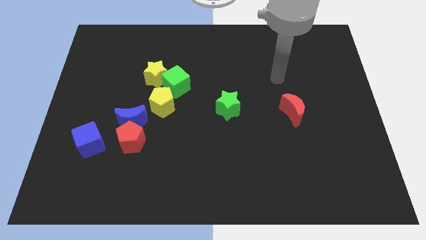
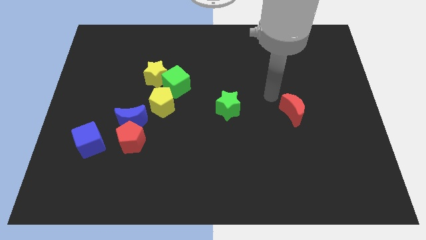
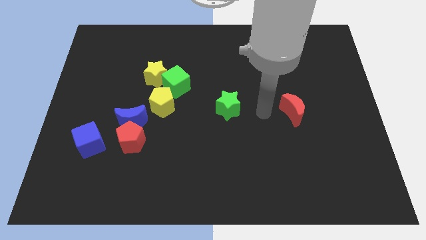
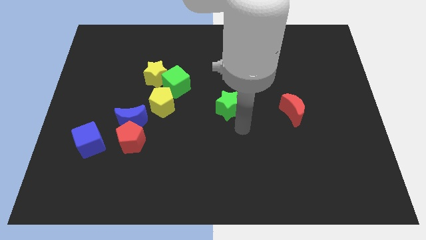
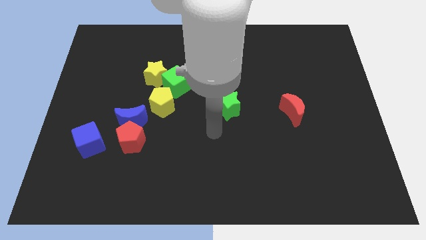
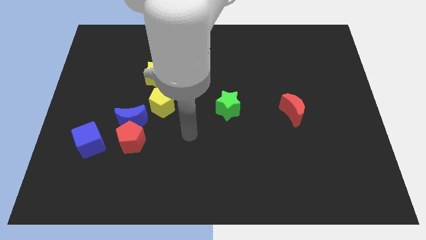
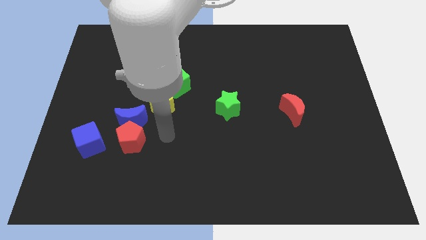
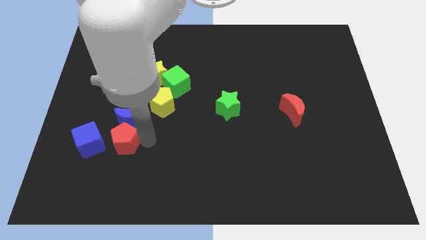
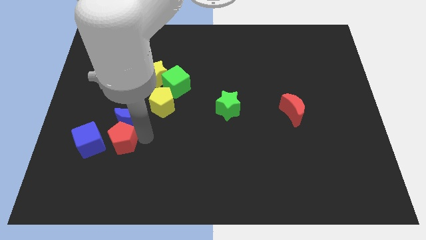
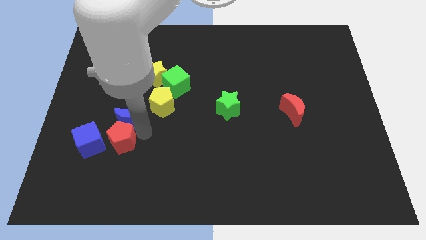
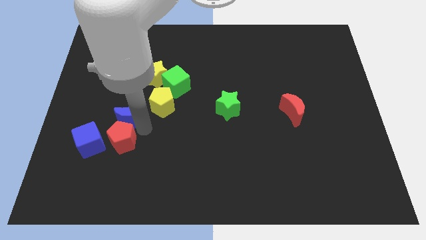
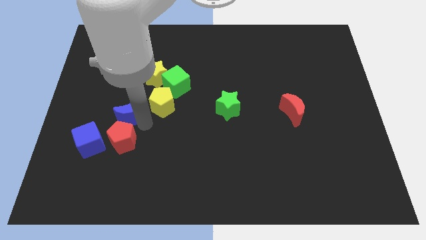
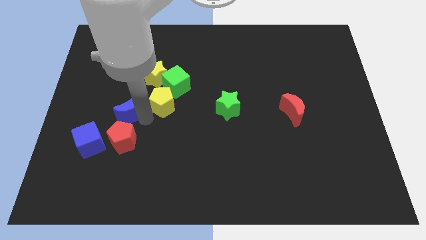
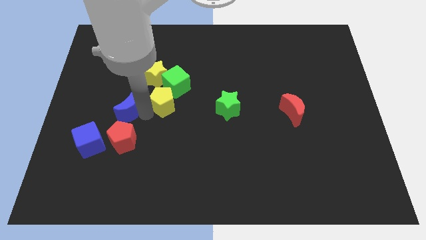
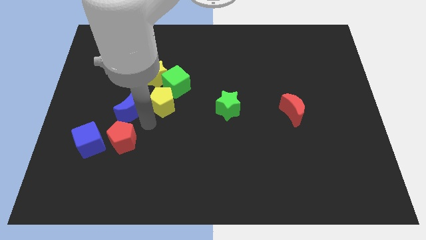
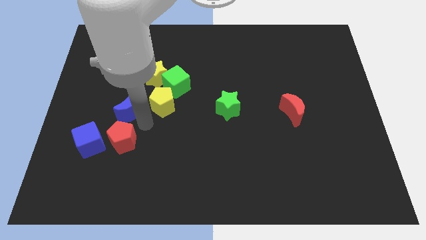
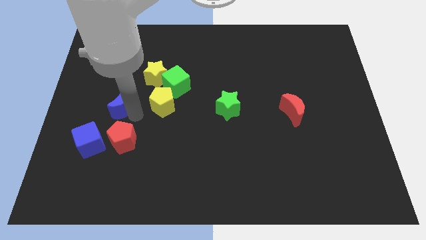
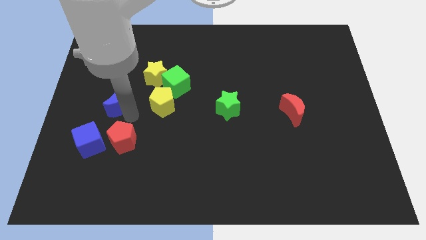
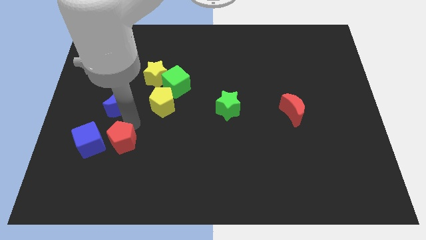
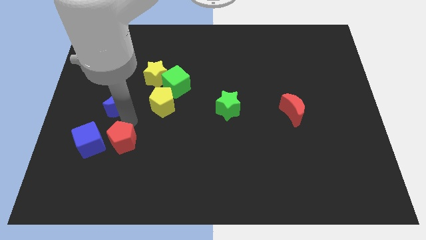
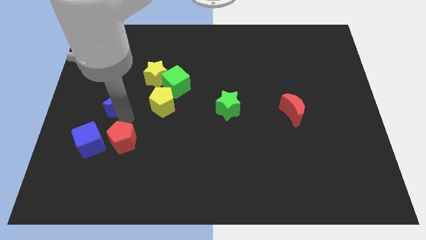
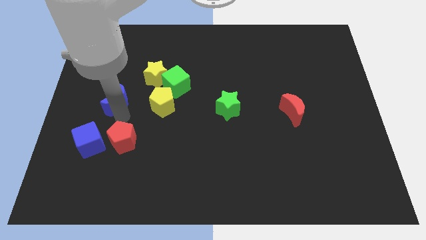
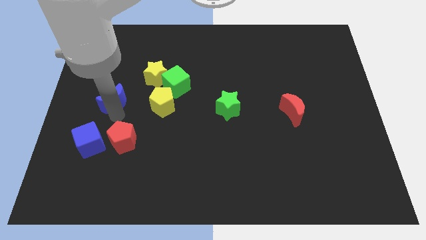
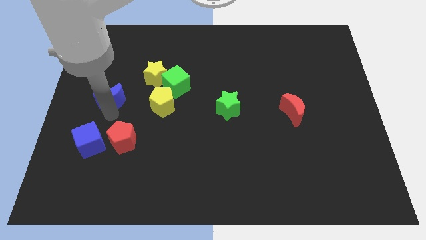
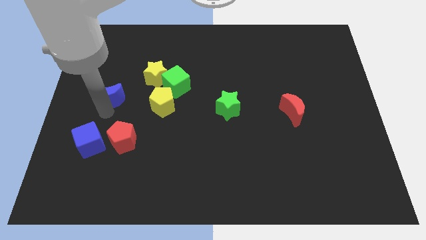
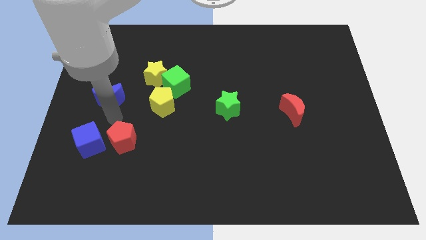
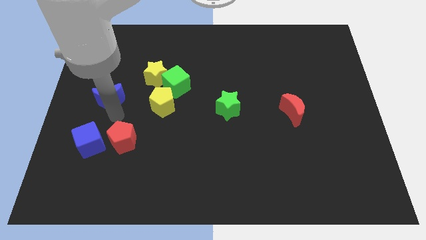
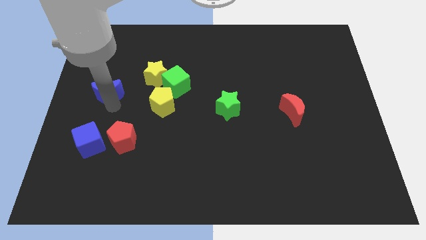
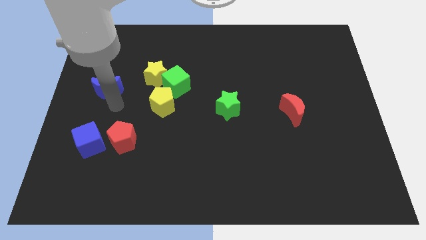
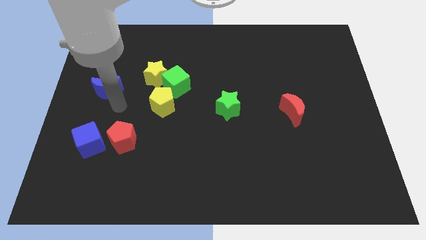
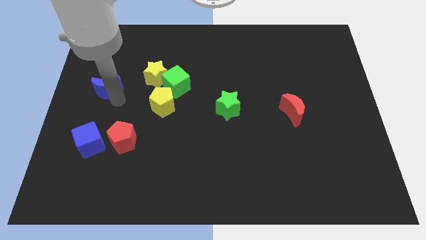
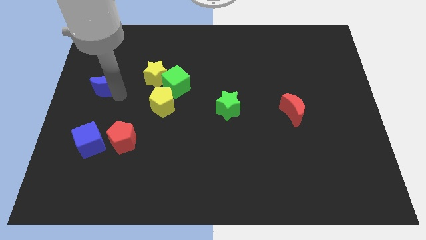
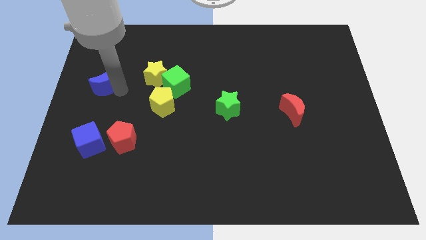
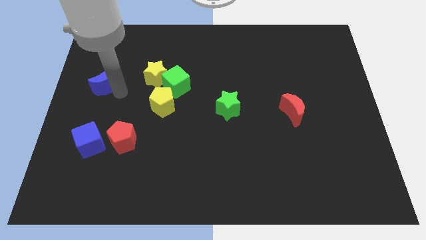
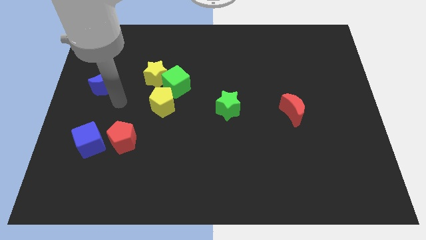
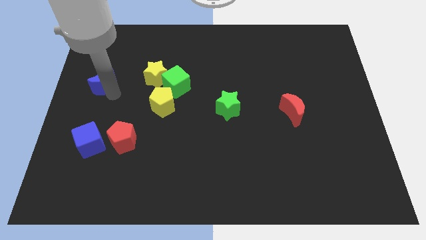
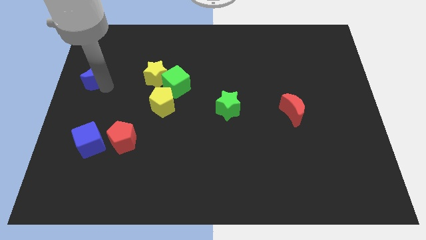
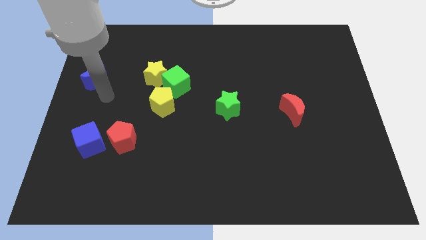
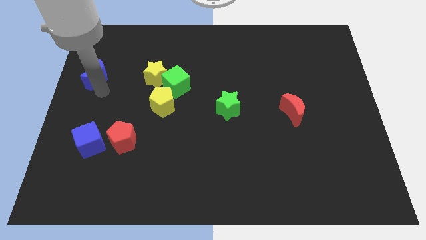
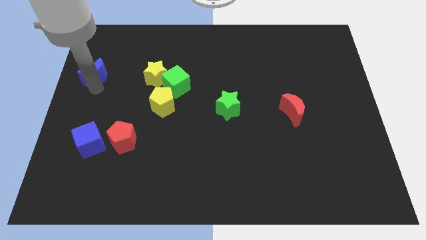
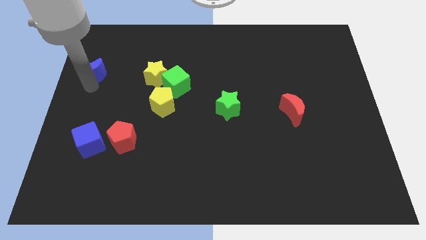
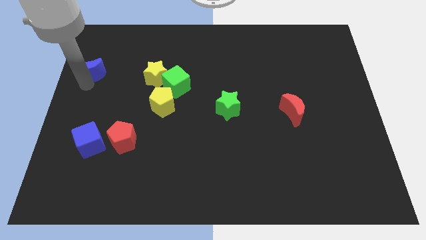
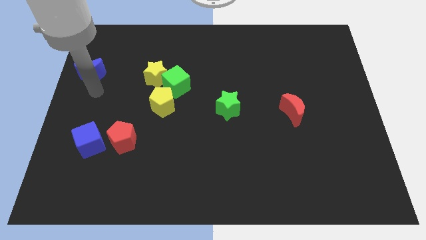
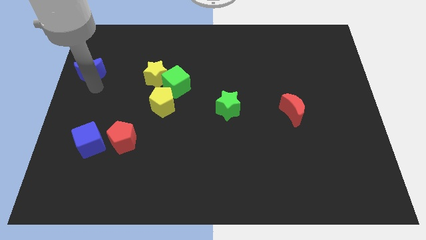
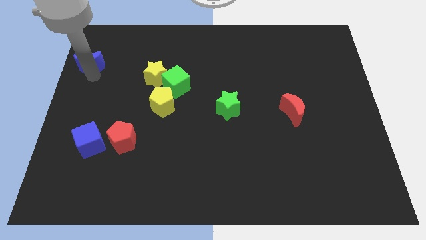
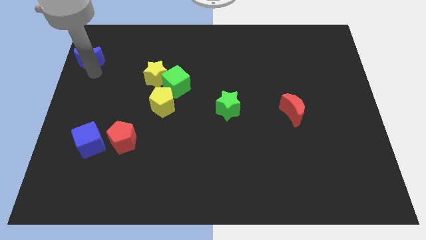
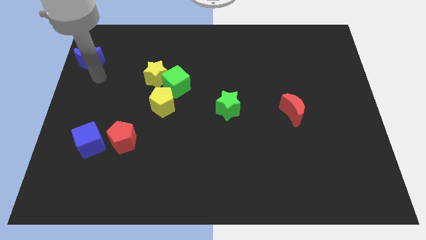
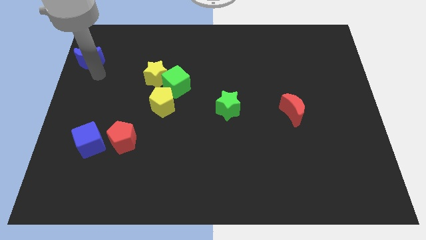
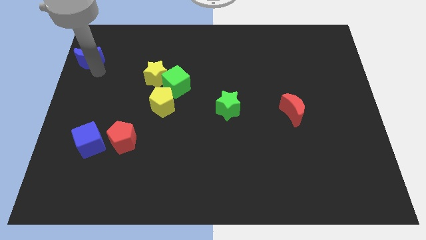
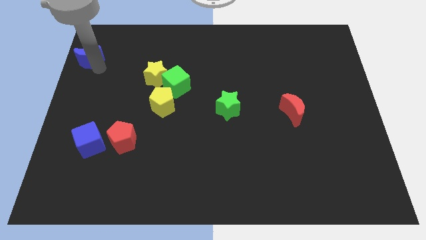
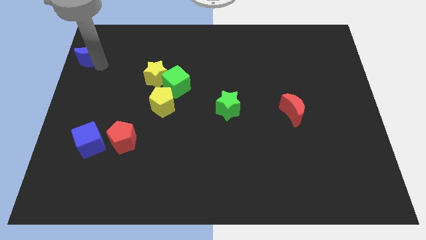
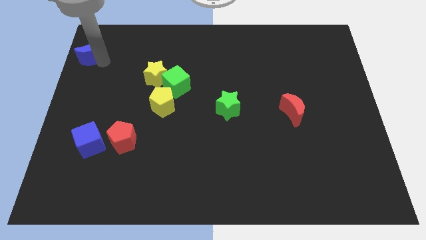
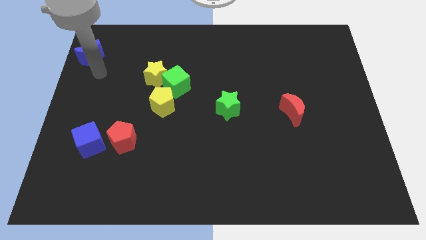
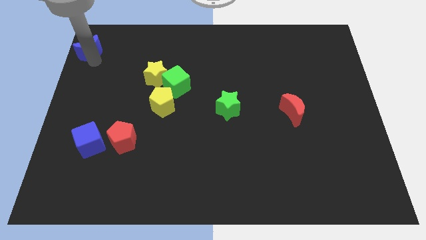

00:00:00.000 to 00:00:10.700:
move the blue moon to the top left corner

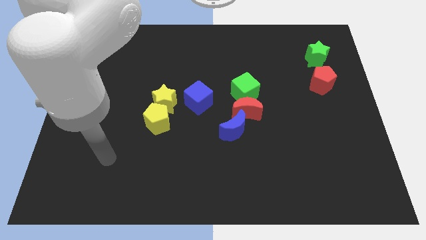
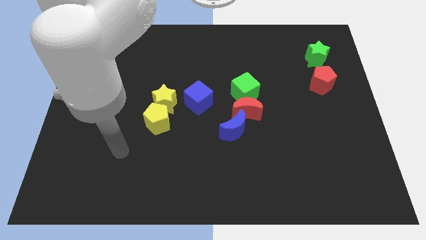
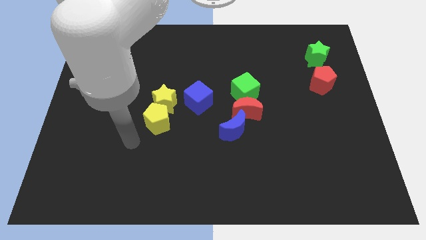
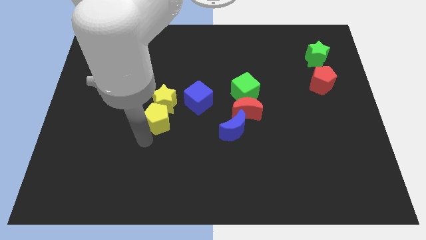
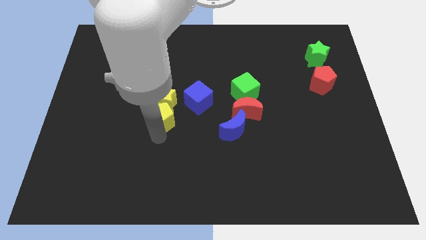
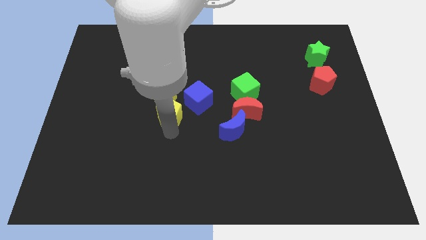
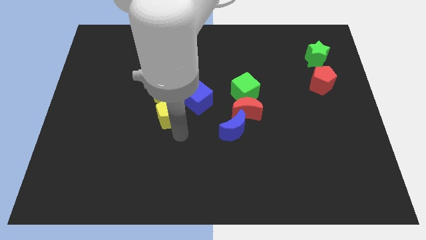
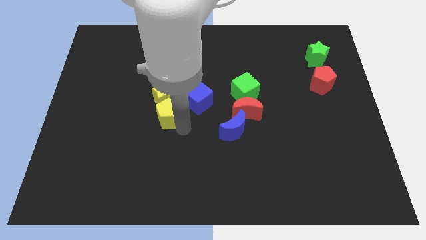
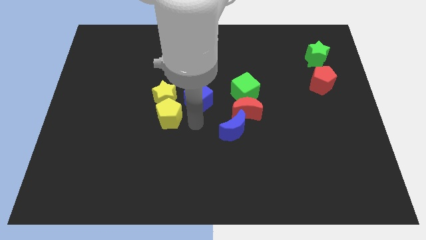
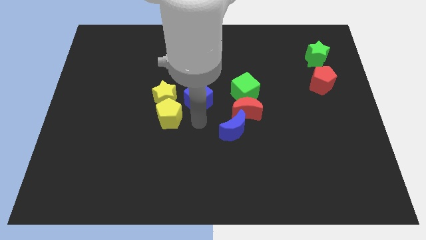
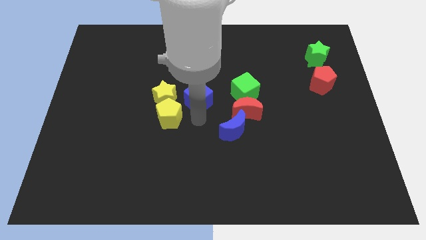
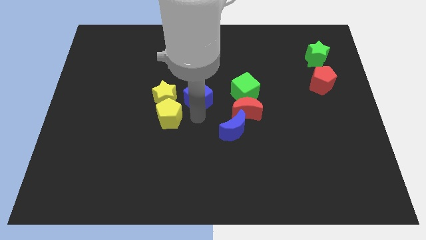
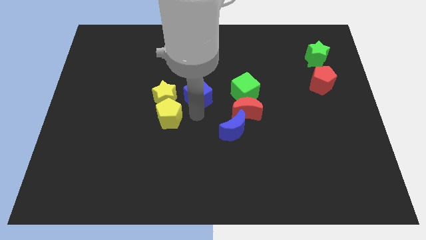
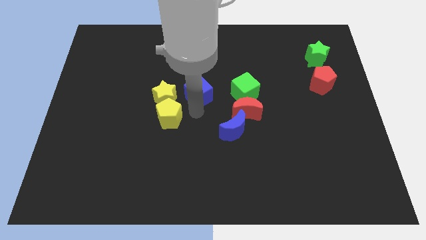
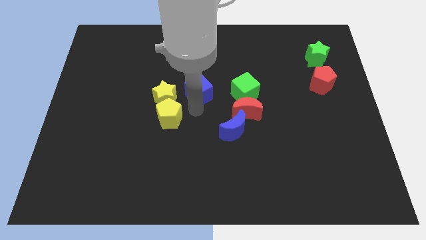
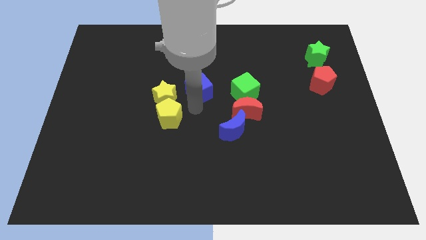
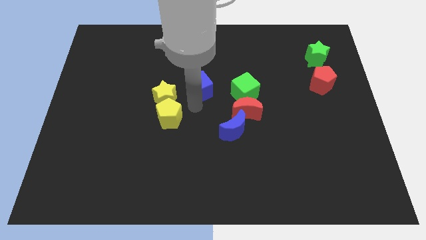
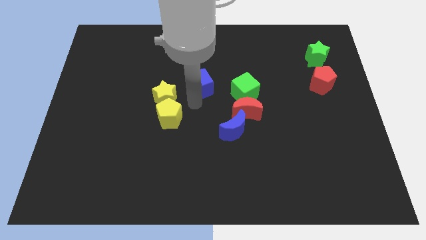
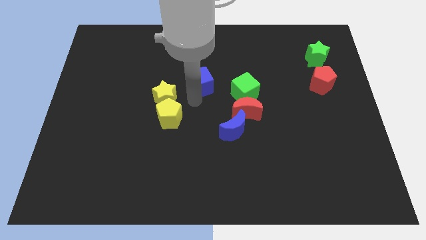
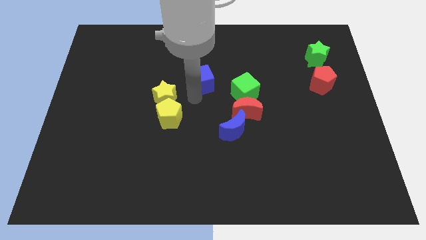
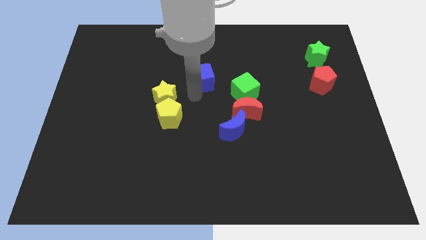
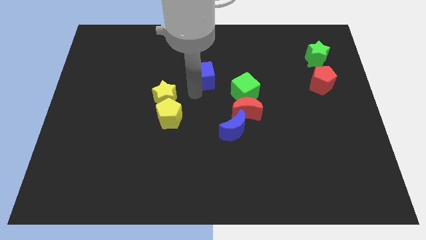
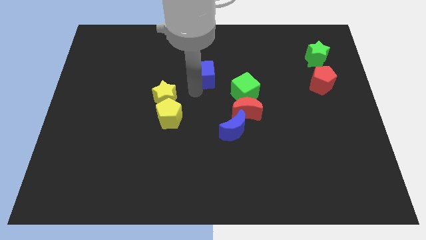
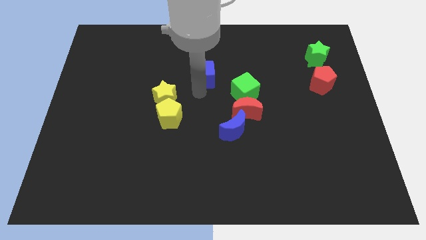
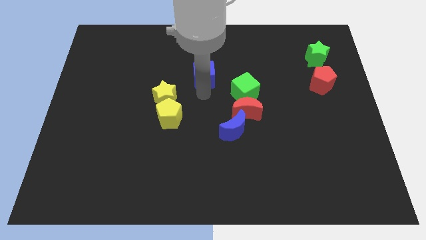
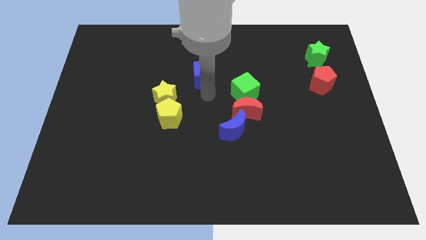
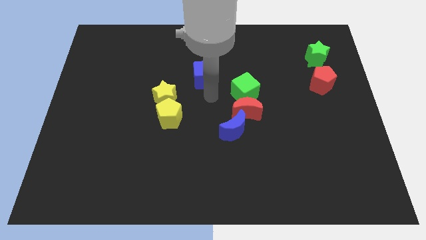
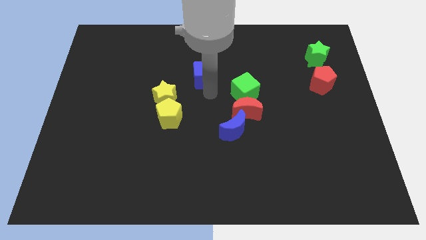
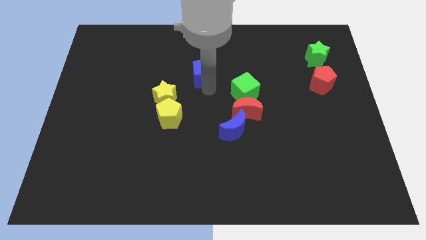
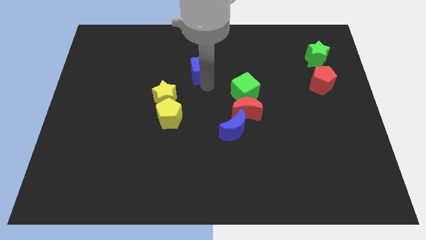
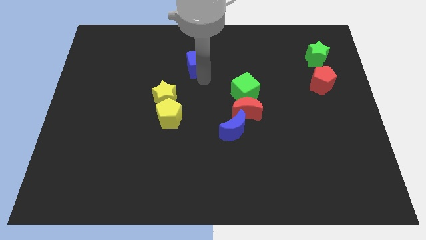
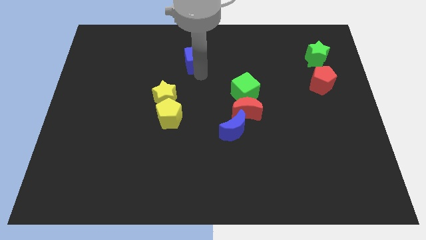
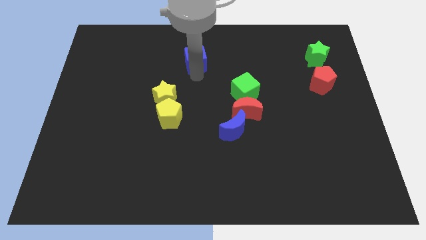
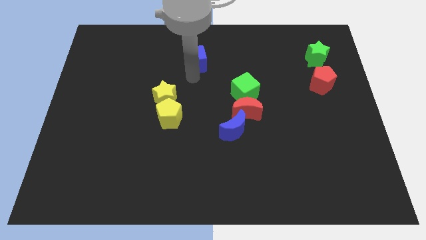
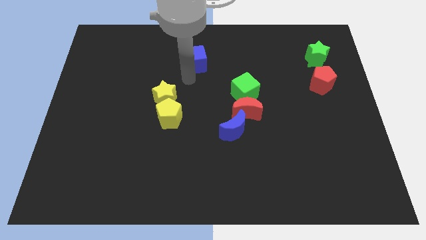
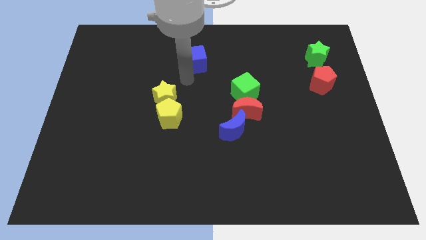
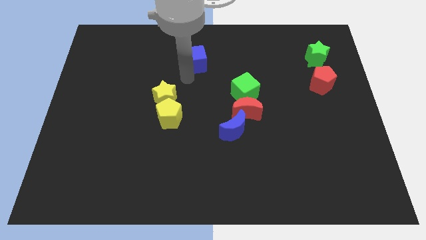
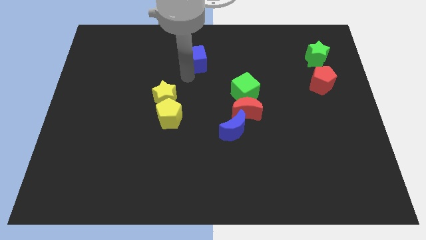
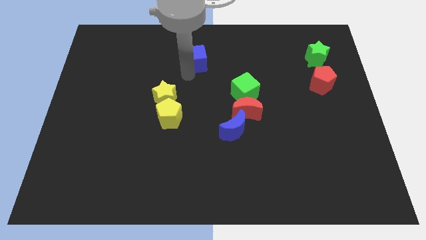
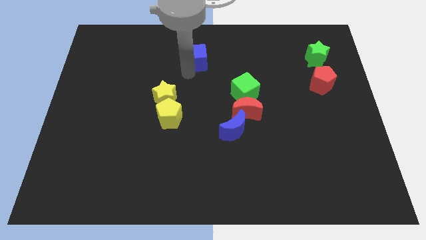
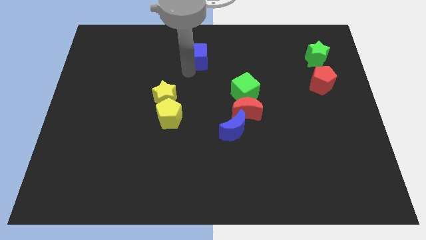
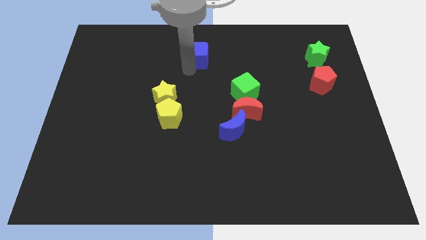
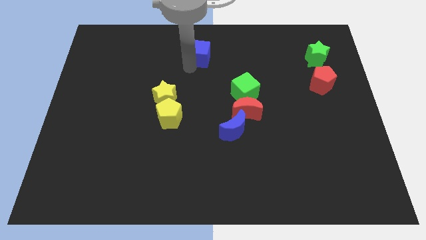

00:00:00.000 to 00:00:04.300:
slide the blue cube to the top side
